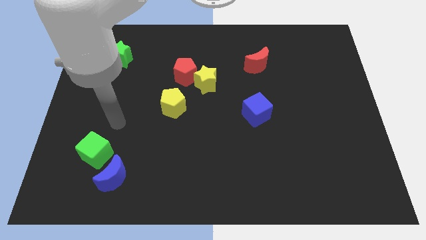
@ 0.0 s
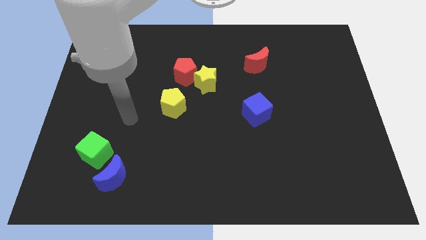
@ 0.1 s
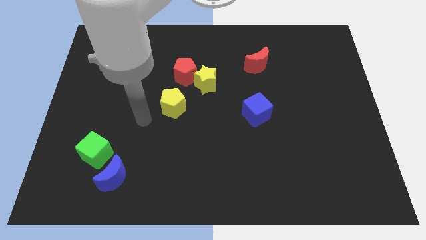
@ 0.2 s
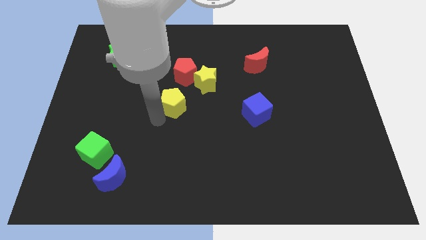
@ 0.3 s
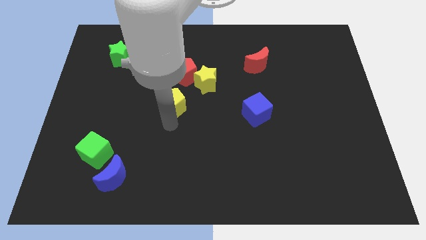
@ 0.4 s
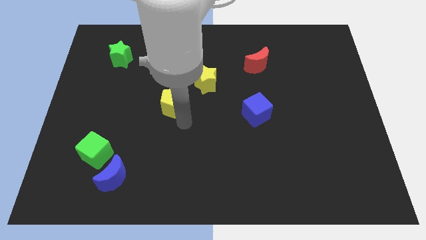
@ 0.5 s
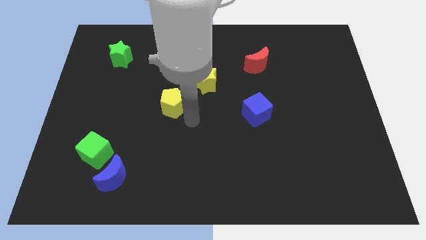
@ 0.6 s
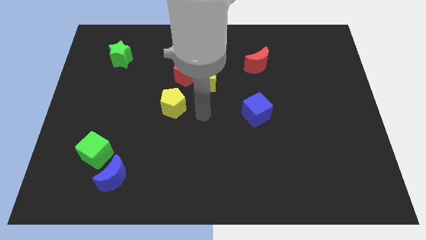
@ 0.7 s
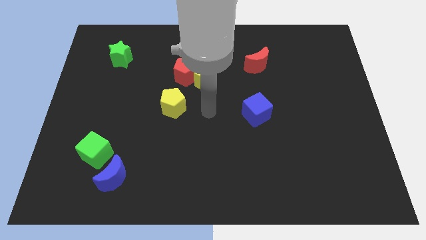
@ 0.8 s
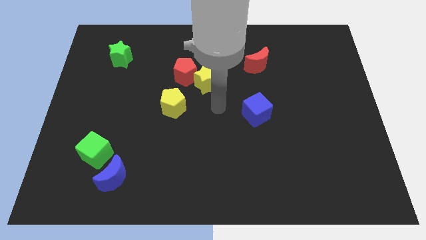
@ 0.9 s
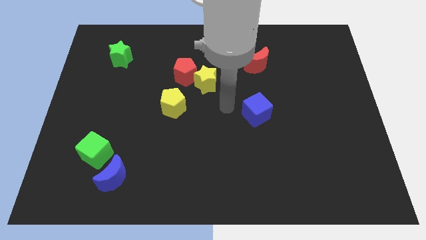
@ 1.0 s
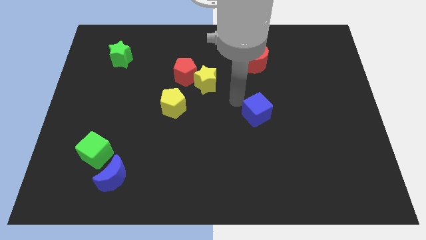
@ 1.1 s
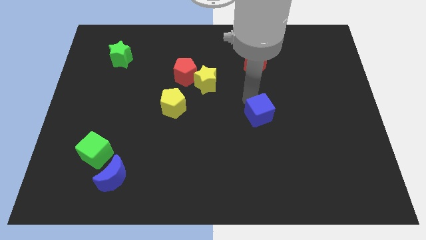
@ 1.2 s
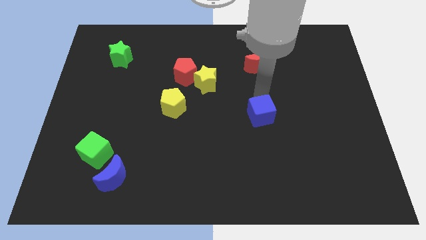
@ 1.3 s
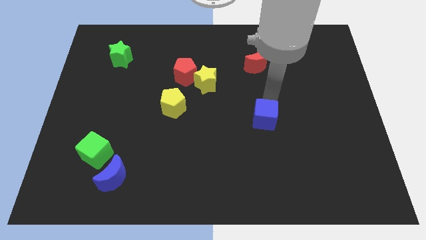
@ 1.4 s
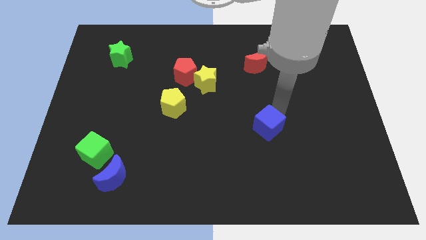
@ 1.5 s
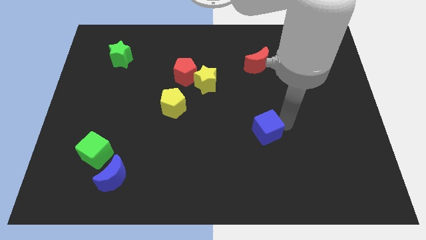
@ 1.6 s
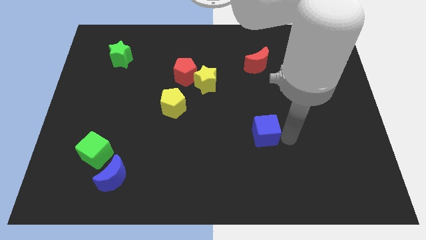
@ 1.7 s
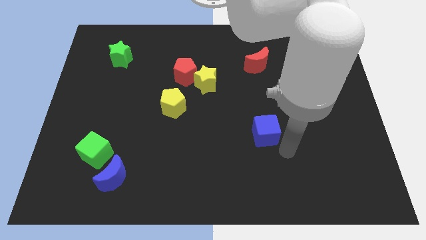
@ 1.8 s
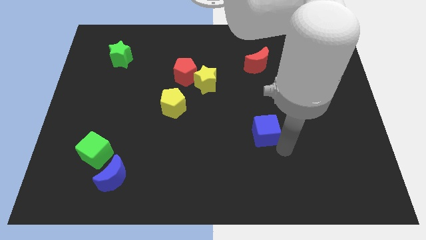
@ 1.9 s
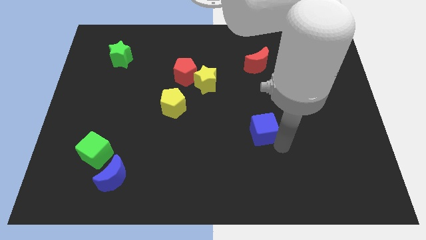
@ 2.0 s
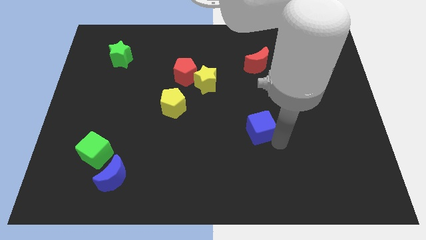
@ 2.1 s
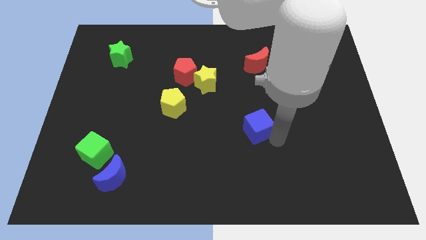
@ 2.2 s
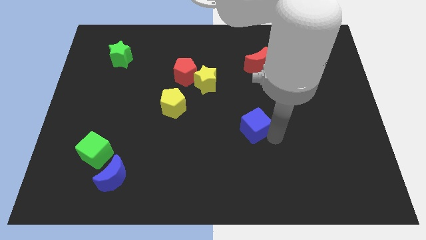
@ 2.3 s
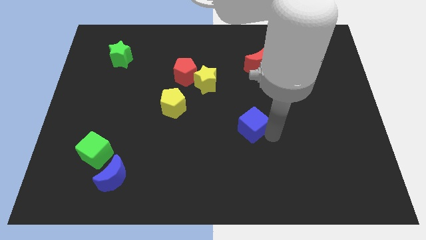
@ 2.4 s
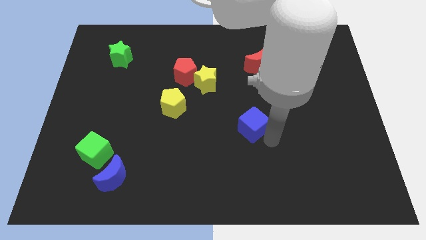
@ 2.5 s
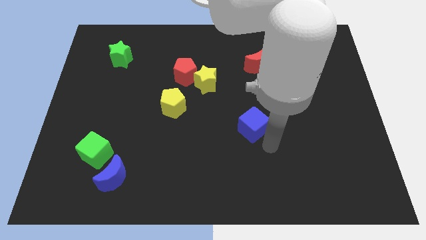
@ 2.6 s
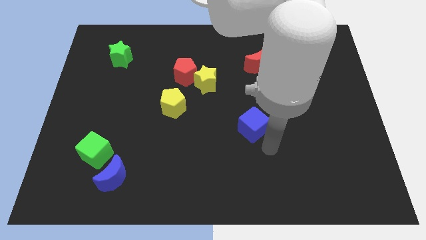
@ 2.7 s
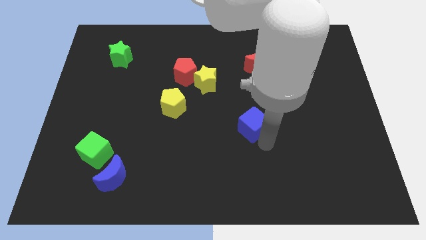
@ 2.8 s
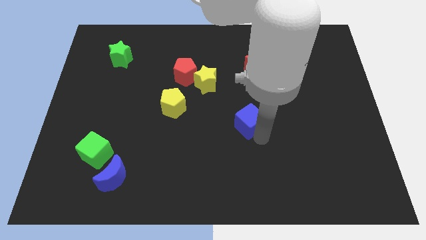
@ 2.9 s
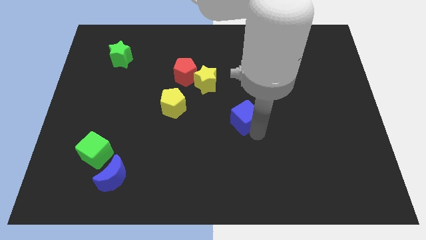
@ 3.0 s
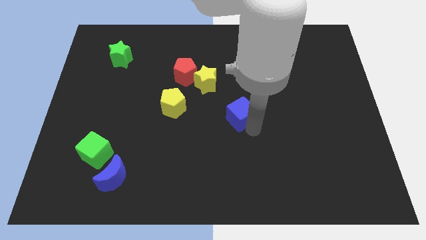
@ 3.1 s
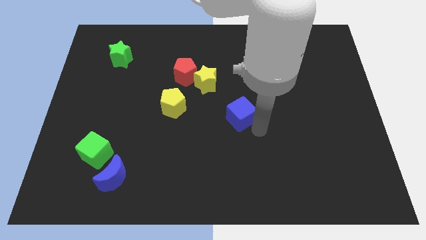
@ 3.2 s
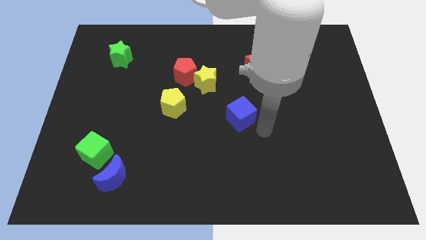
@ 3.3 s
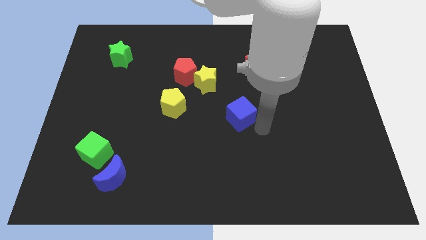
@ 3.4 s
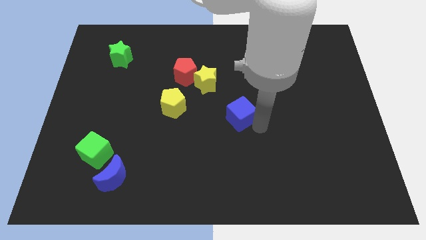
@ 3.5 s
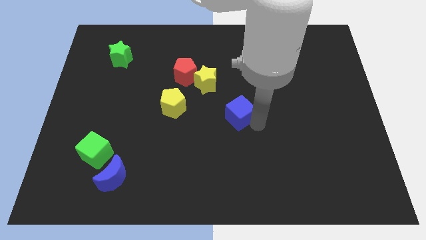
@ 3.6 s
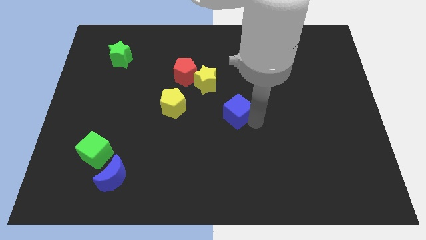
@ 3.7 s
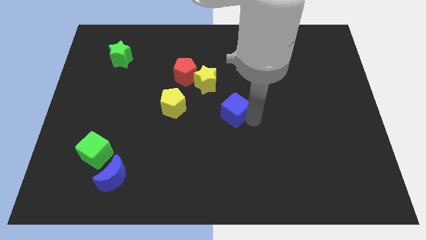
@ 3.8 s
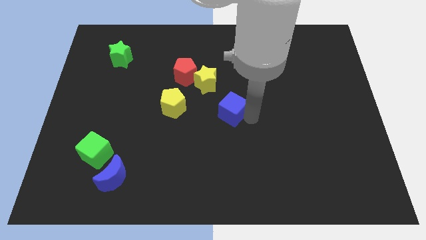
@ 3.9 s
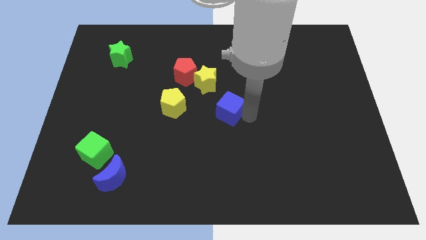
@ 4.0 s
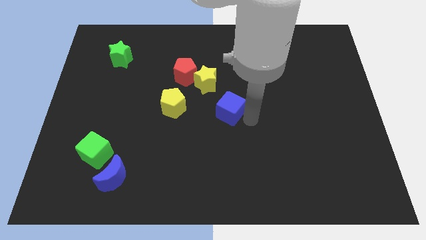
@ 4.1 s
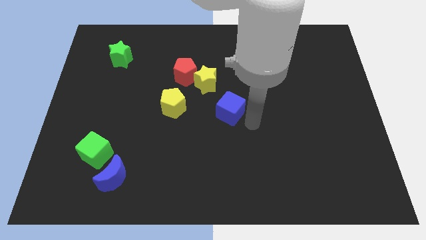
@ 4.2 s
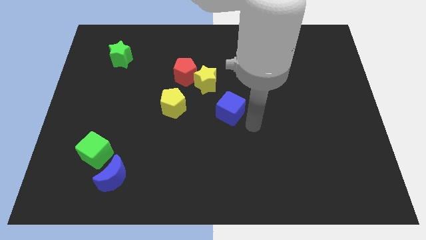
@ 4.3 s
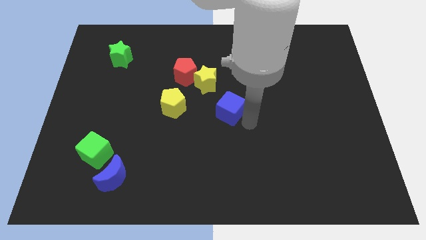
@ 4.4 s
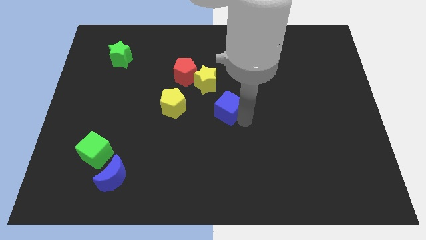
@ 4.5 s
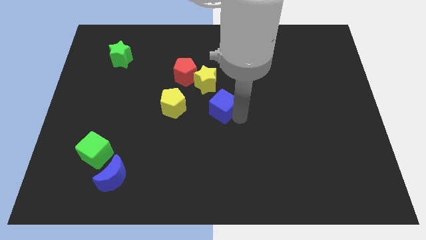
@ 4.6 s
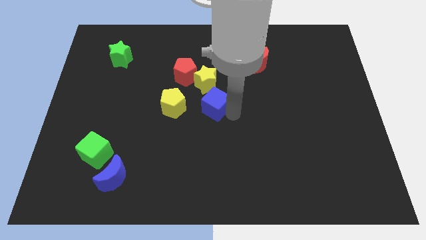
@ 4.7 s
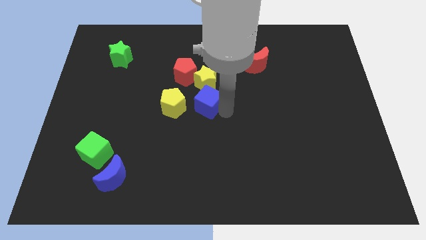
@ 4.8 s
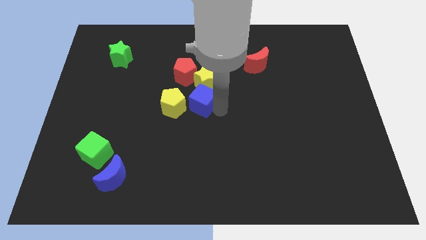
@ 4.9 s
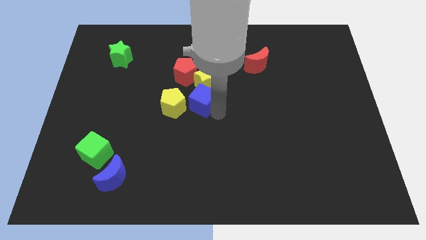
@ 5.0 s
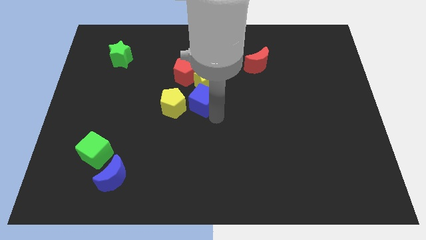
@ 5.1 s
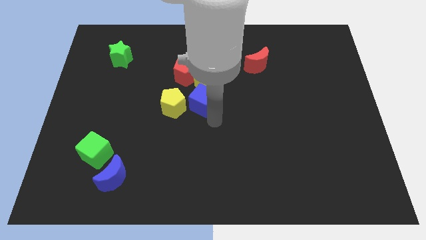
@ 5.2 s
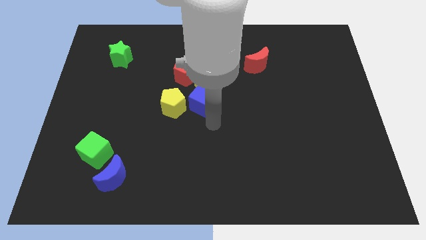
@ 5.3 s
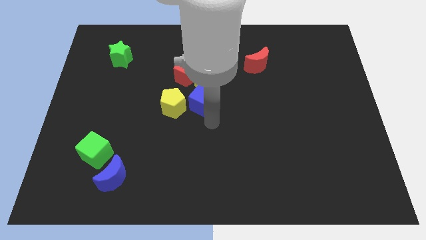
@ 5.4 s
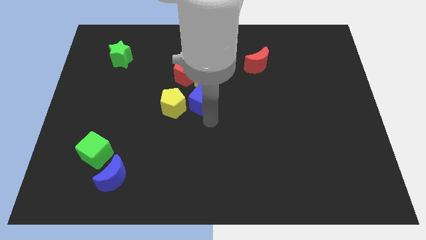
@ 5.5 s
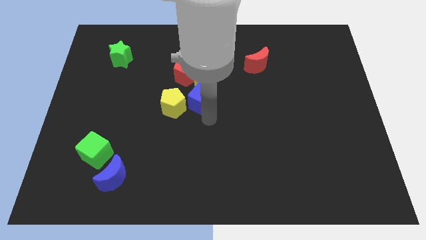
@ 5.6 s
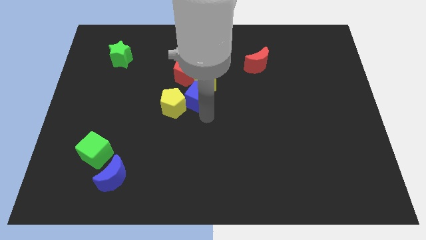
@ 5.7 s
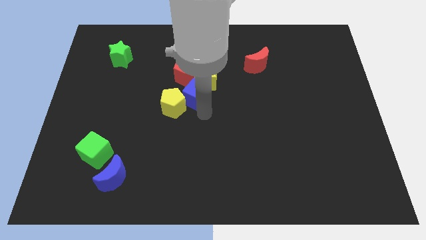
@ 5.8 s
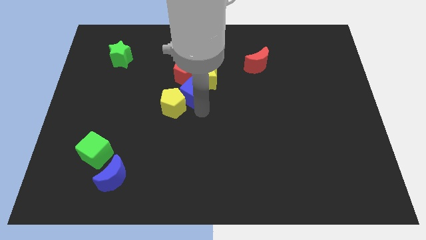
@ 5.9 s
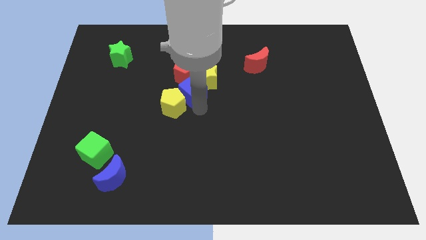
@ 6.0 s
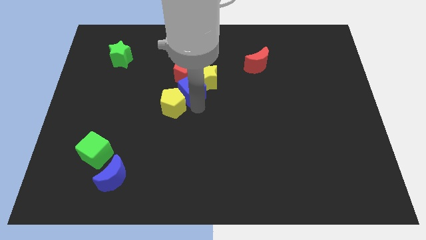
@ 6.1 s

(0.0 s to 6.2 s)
put the blue cube to the red pentagon

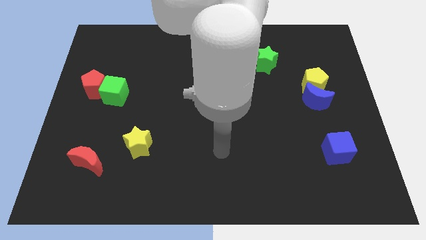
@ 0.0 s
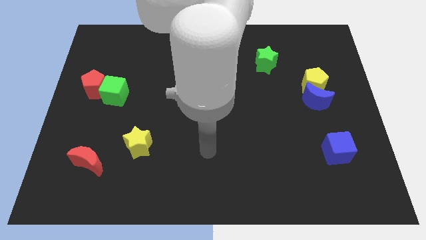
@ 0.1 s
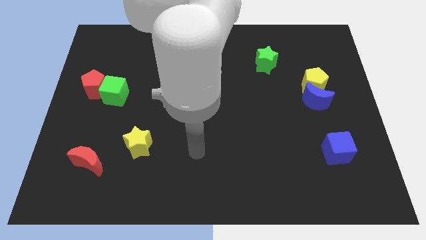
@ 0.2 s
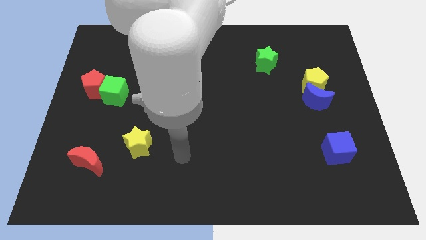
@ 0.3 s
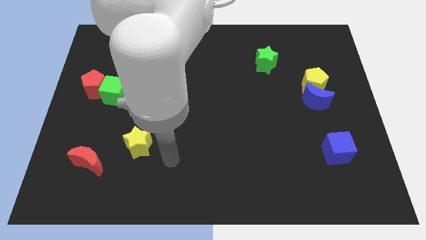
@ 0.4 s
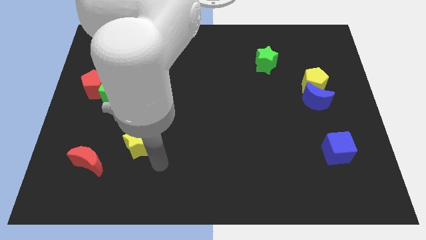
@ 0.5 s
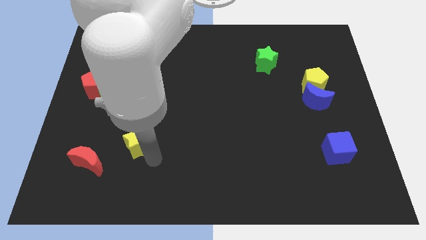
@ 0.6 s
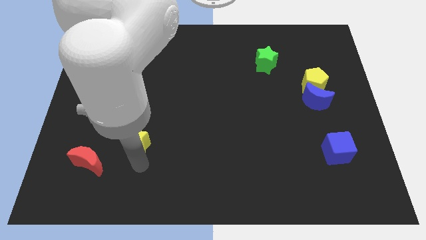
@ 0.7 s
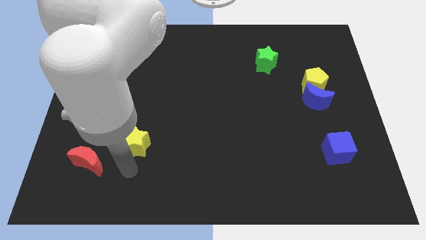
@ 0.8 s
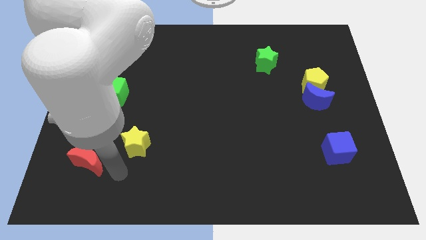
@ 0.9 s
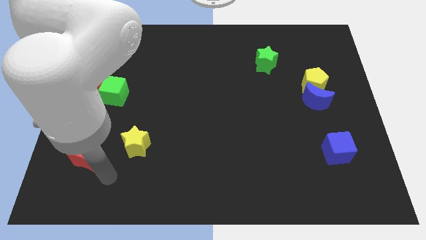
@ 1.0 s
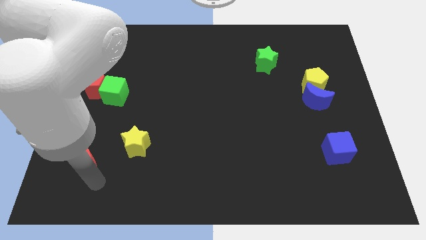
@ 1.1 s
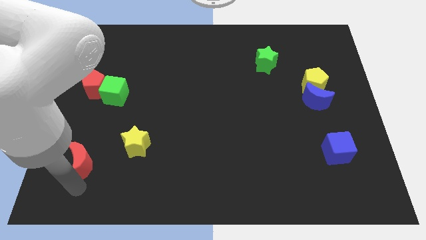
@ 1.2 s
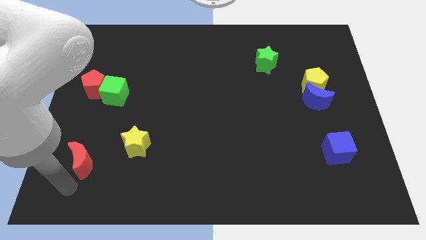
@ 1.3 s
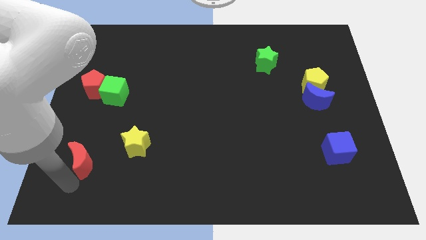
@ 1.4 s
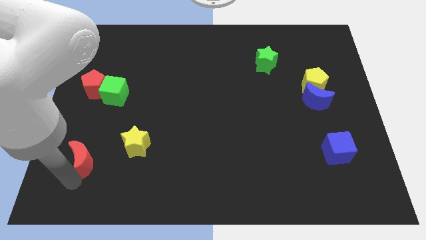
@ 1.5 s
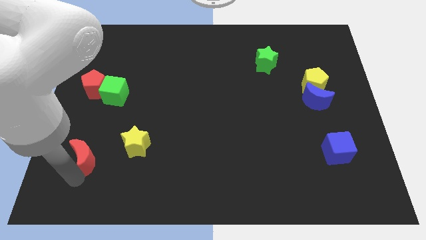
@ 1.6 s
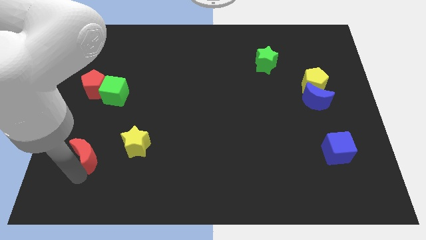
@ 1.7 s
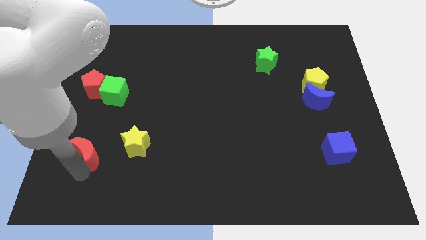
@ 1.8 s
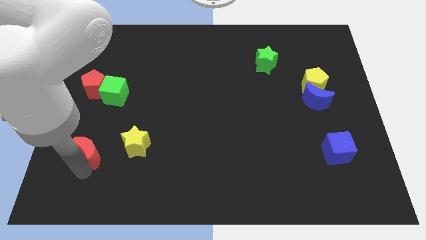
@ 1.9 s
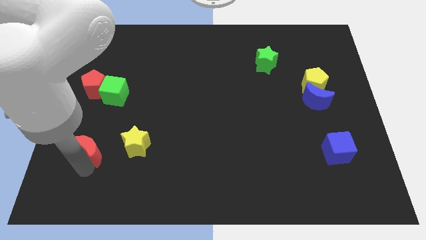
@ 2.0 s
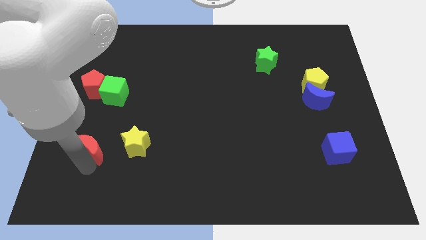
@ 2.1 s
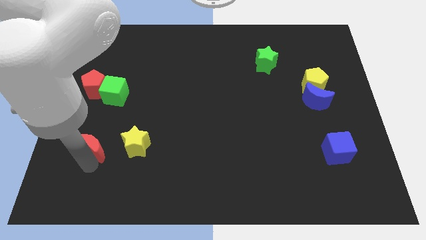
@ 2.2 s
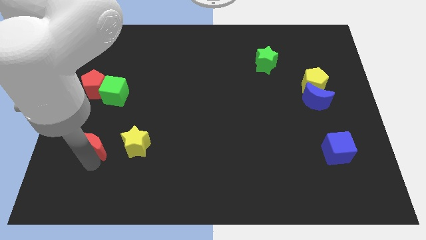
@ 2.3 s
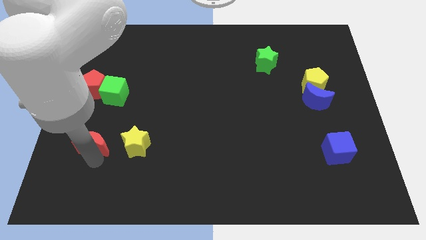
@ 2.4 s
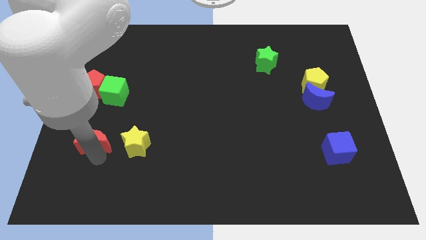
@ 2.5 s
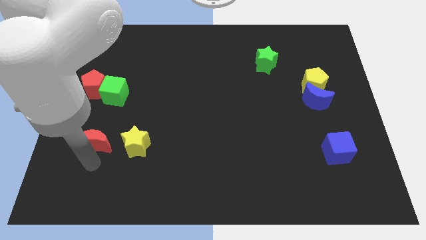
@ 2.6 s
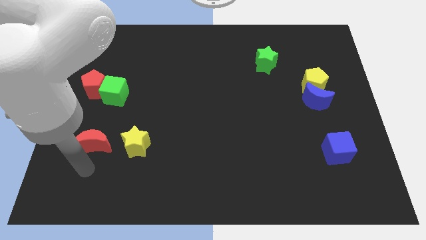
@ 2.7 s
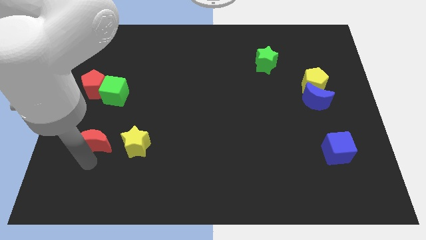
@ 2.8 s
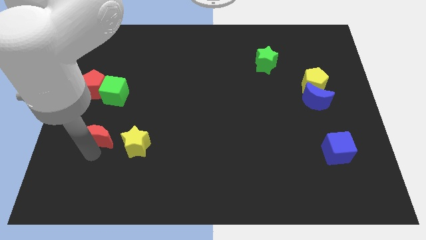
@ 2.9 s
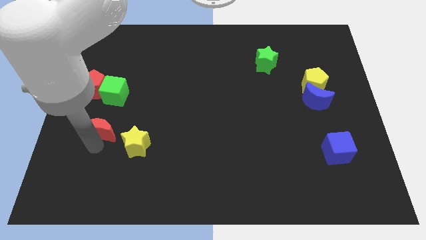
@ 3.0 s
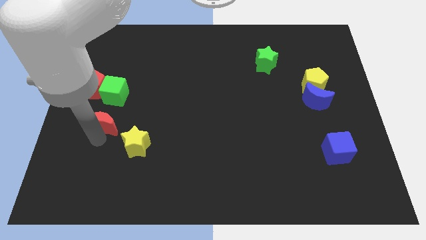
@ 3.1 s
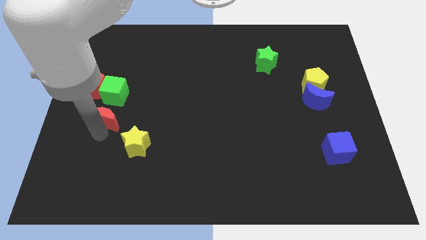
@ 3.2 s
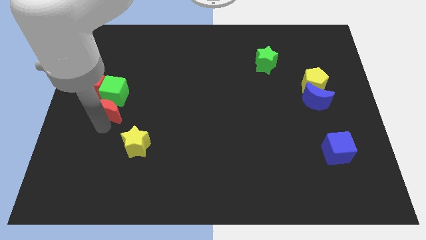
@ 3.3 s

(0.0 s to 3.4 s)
move the red moon towards the green cube
